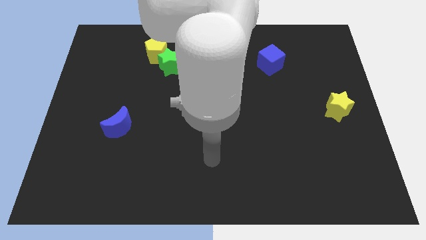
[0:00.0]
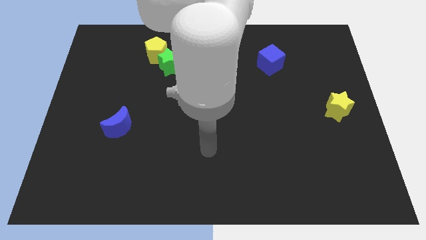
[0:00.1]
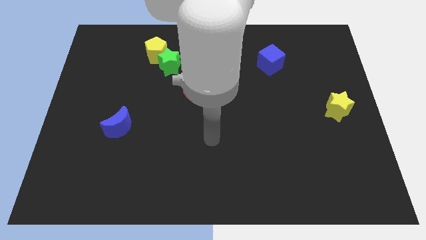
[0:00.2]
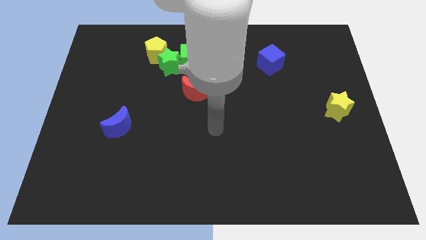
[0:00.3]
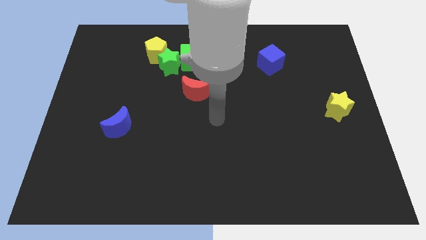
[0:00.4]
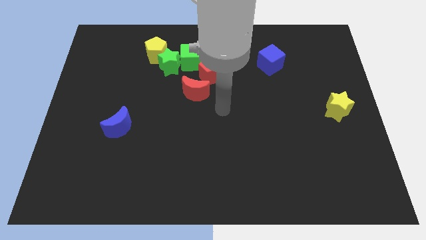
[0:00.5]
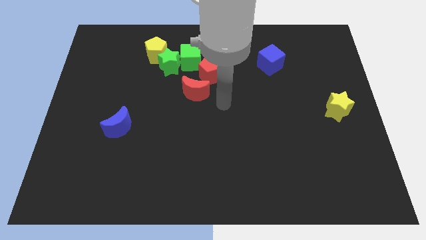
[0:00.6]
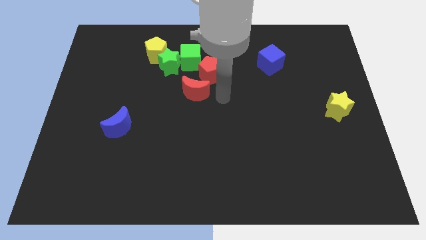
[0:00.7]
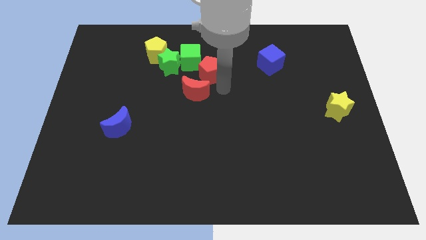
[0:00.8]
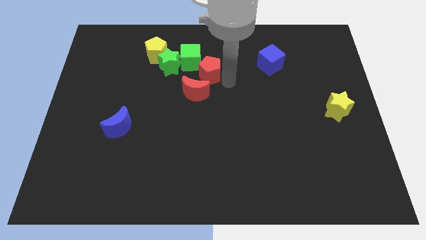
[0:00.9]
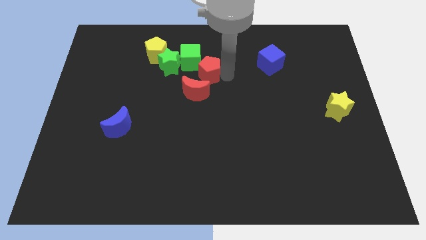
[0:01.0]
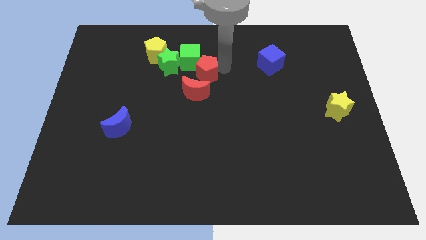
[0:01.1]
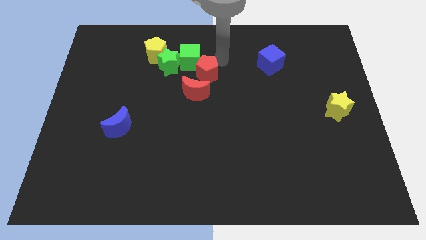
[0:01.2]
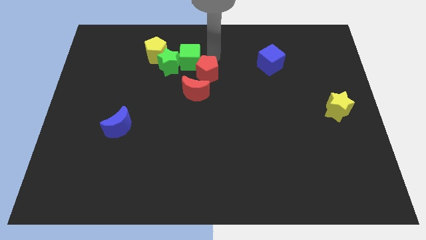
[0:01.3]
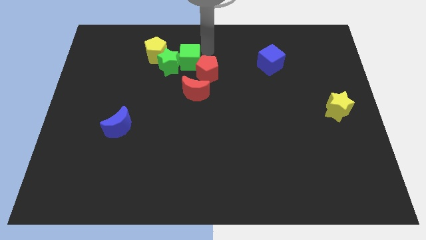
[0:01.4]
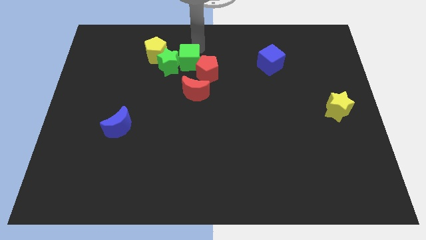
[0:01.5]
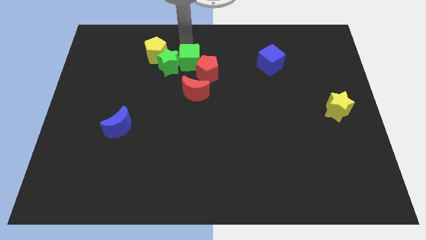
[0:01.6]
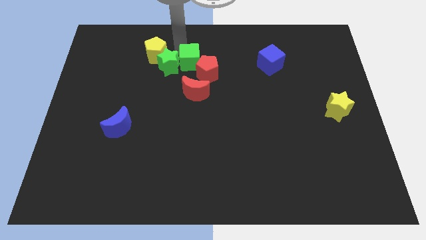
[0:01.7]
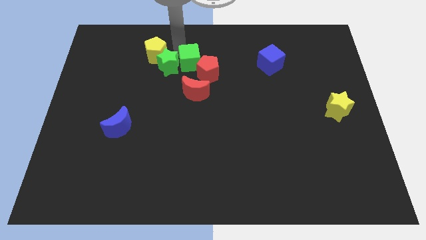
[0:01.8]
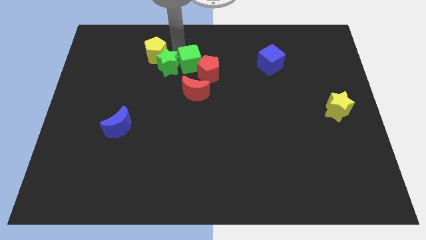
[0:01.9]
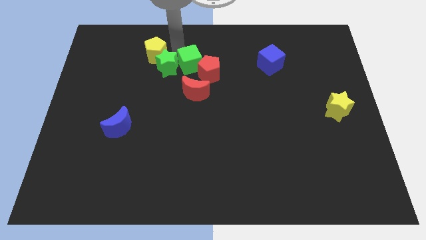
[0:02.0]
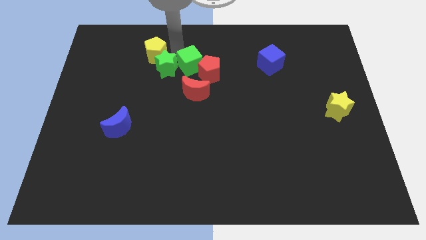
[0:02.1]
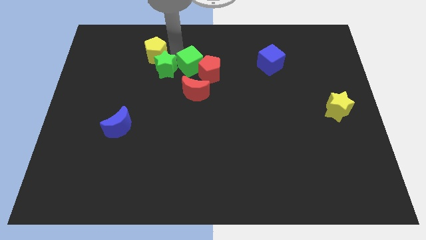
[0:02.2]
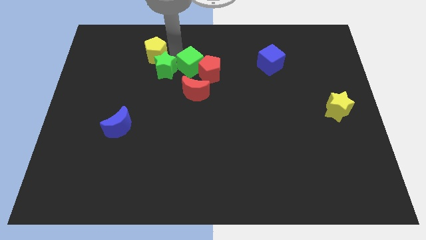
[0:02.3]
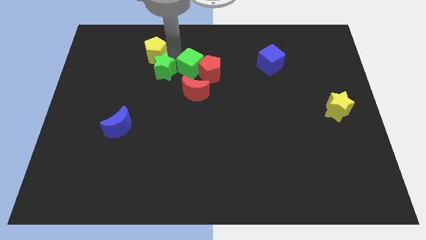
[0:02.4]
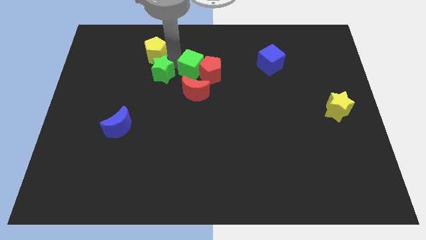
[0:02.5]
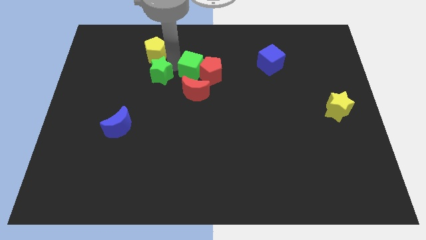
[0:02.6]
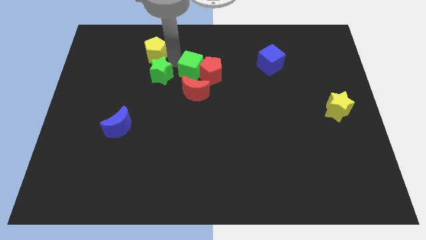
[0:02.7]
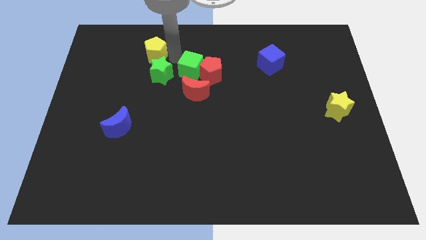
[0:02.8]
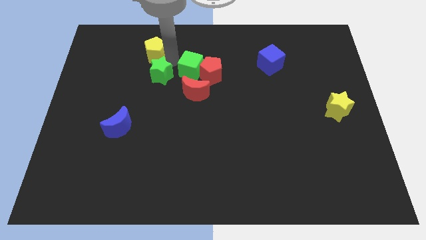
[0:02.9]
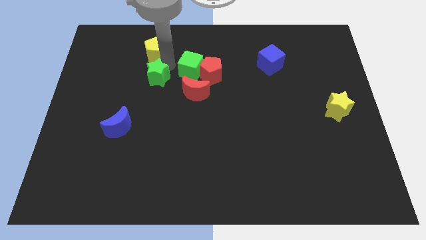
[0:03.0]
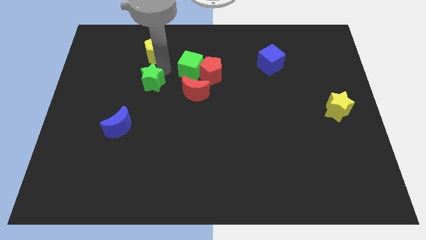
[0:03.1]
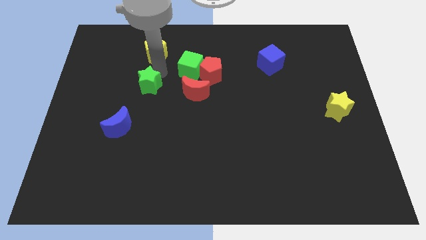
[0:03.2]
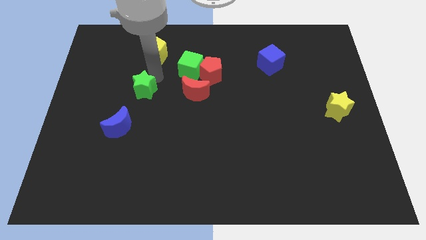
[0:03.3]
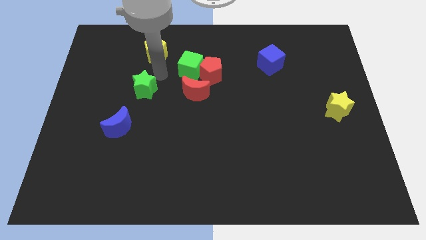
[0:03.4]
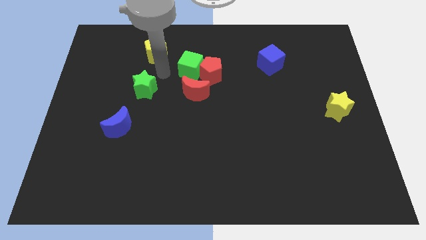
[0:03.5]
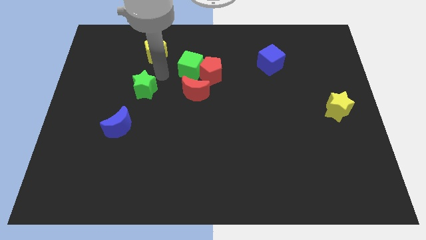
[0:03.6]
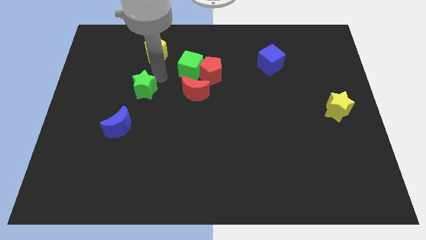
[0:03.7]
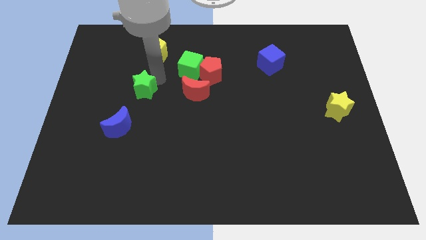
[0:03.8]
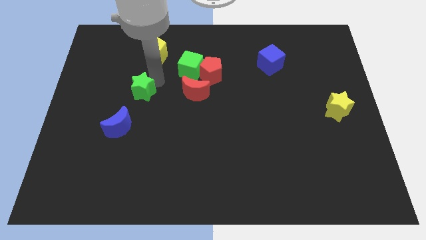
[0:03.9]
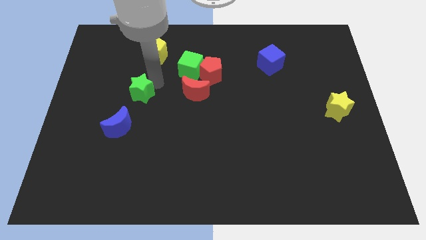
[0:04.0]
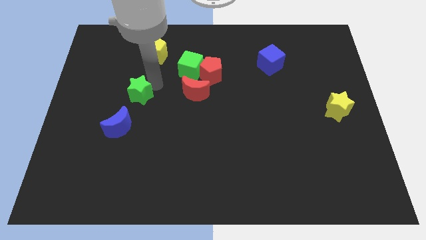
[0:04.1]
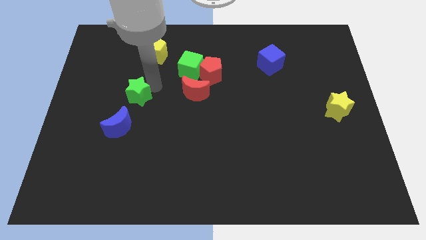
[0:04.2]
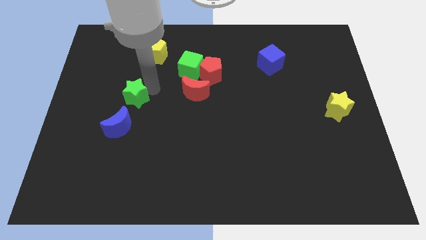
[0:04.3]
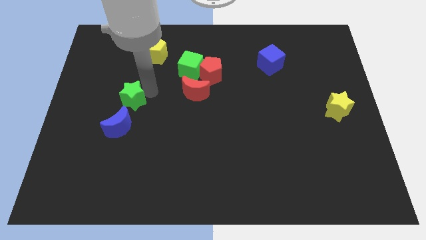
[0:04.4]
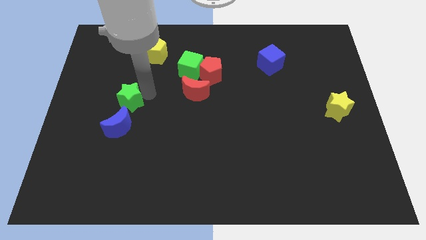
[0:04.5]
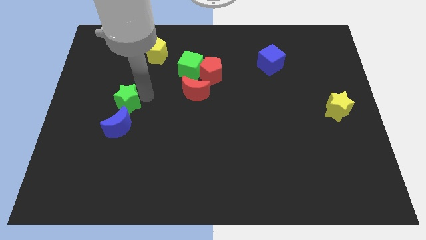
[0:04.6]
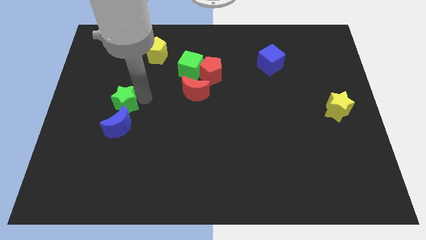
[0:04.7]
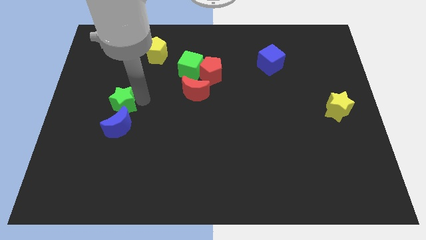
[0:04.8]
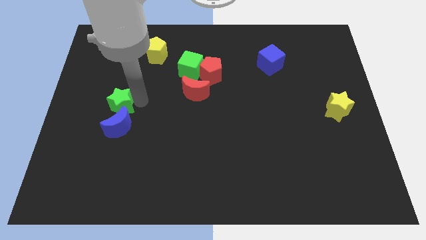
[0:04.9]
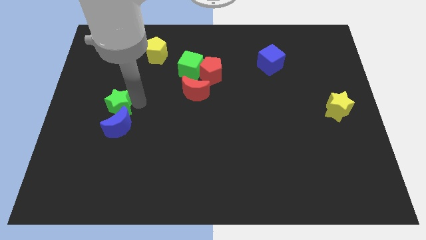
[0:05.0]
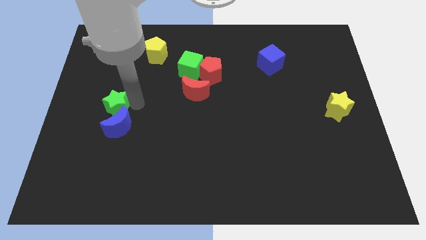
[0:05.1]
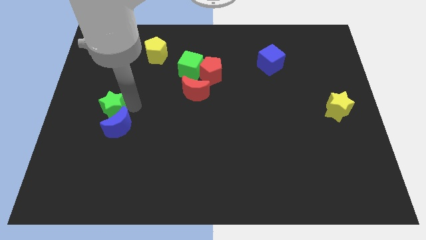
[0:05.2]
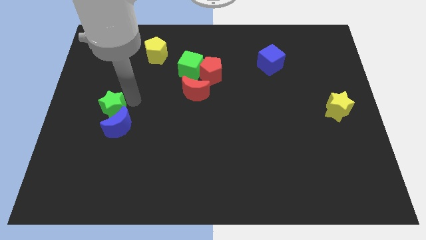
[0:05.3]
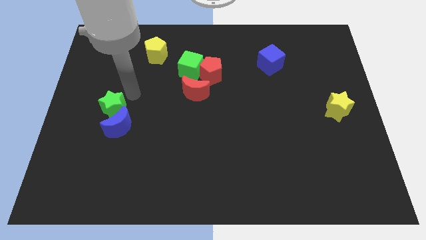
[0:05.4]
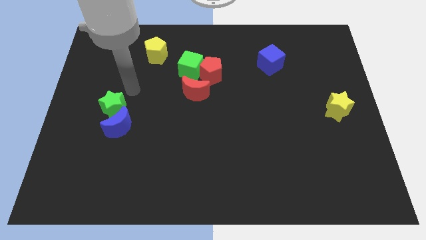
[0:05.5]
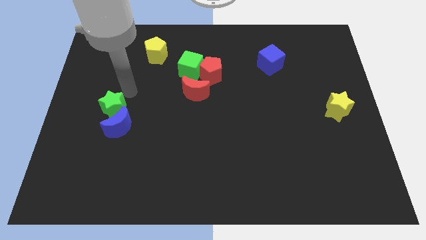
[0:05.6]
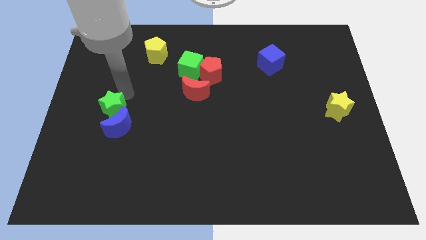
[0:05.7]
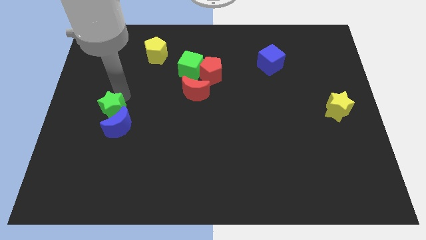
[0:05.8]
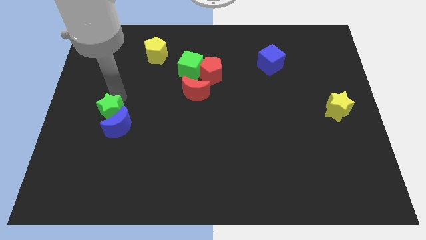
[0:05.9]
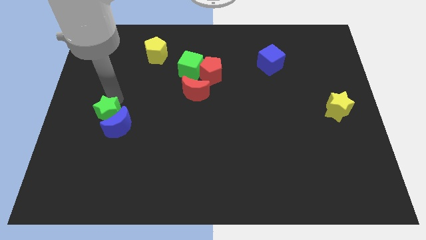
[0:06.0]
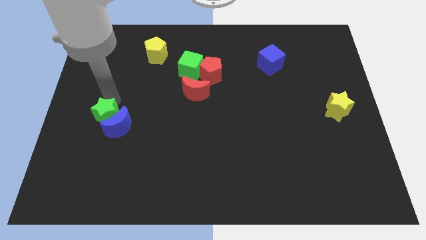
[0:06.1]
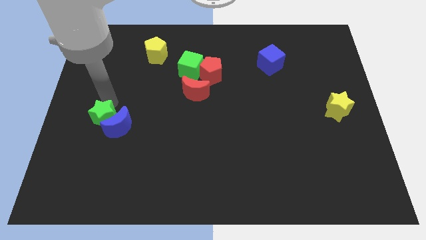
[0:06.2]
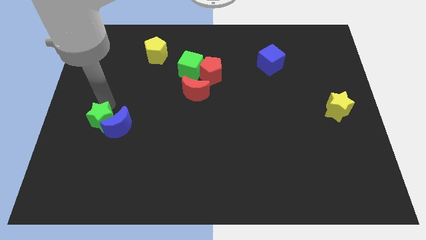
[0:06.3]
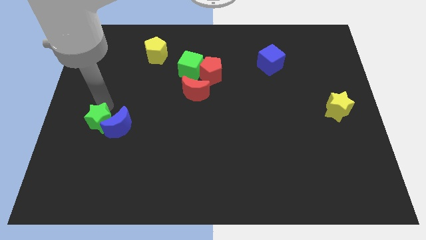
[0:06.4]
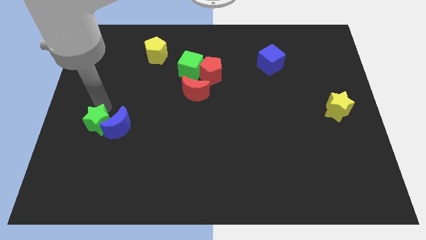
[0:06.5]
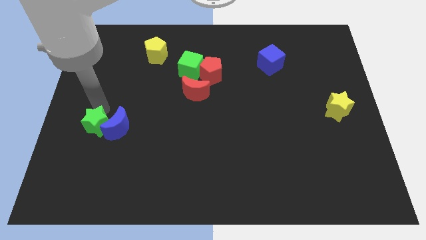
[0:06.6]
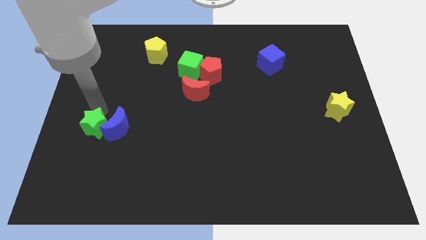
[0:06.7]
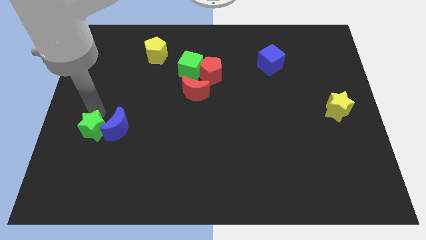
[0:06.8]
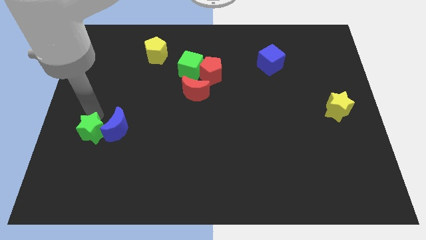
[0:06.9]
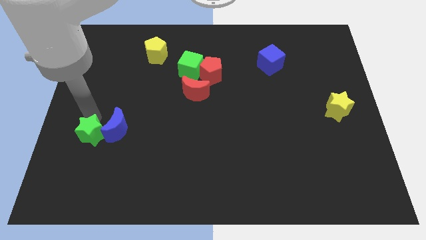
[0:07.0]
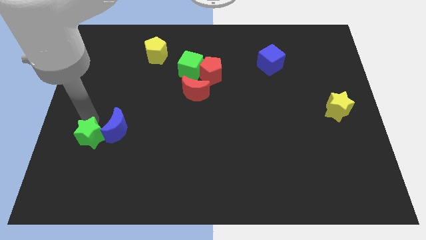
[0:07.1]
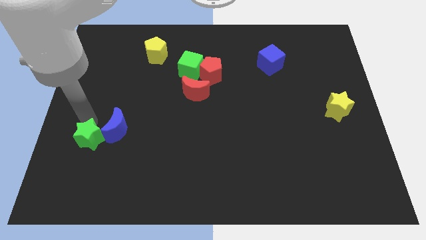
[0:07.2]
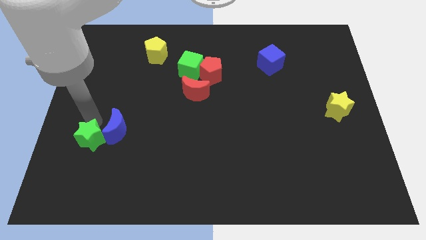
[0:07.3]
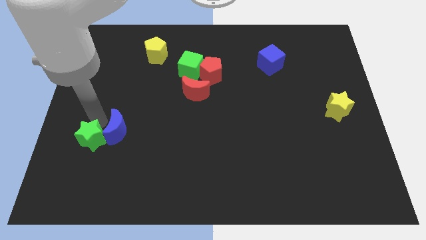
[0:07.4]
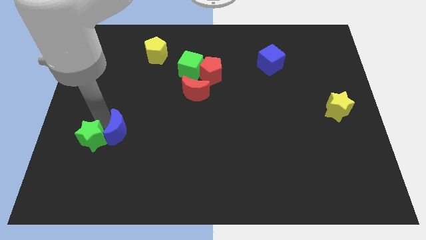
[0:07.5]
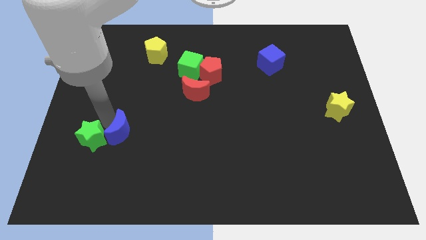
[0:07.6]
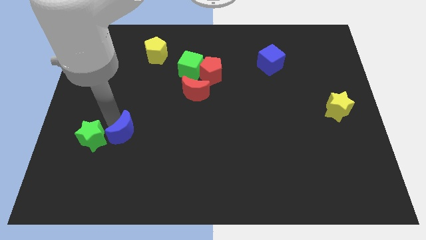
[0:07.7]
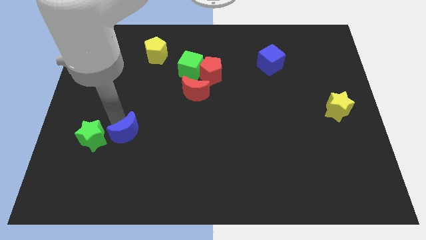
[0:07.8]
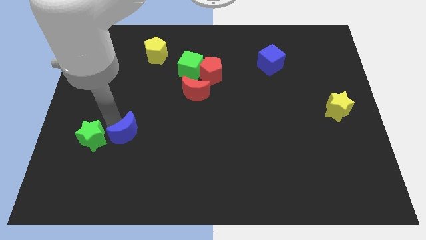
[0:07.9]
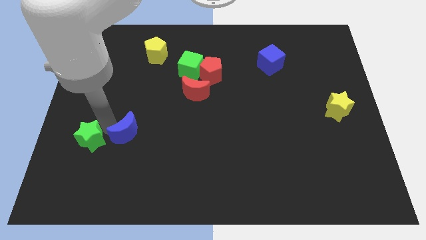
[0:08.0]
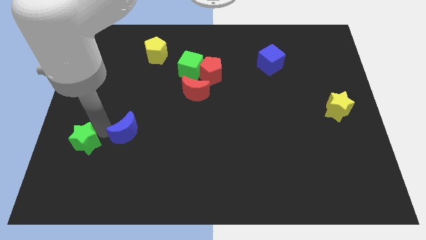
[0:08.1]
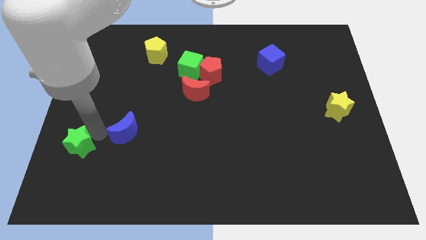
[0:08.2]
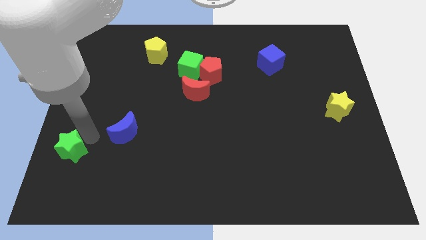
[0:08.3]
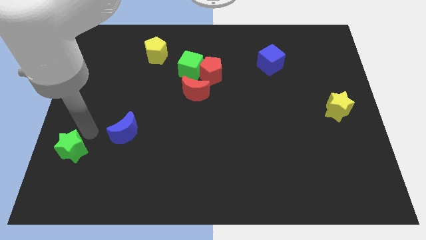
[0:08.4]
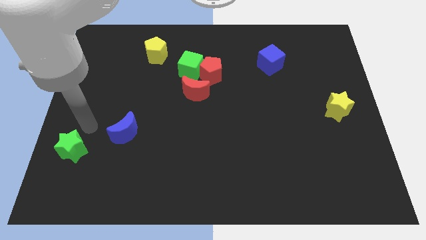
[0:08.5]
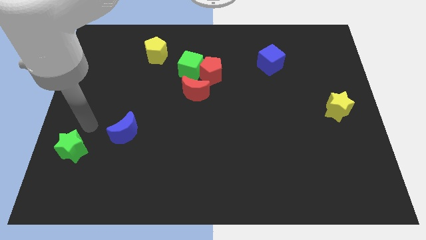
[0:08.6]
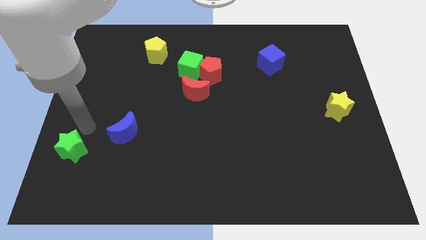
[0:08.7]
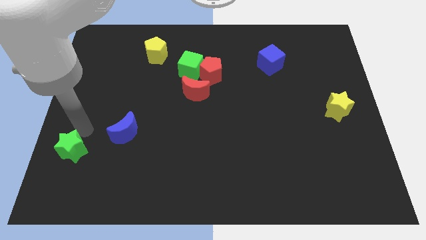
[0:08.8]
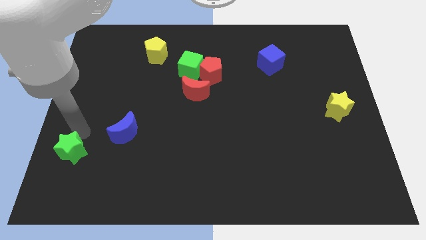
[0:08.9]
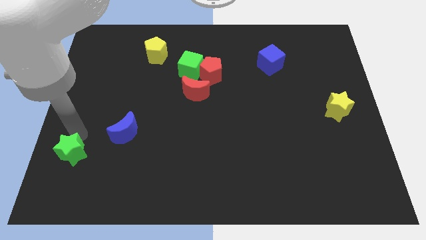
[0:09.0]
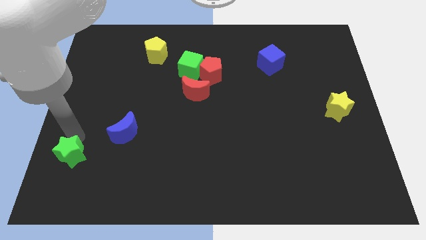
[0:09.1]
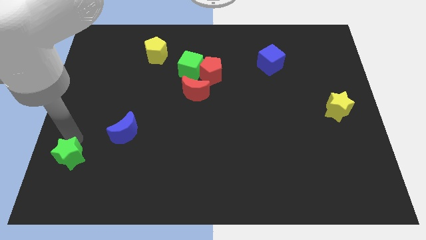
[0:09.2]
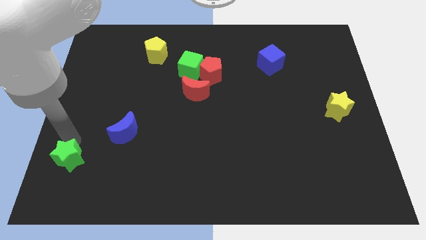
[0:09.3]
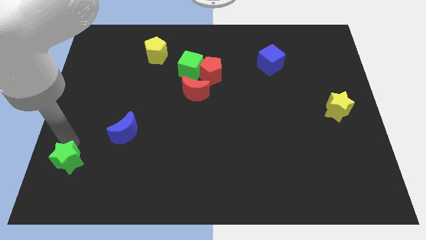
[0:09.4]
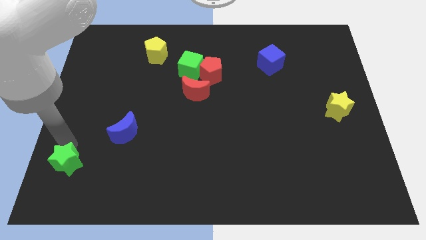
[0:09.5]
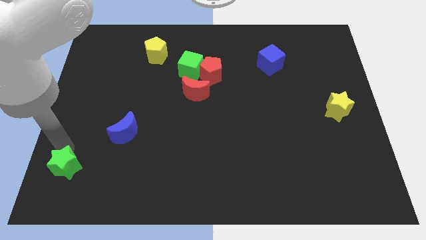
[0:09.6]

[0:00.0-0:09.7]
put the green star to the lower left corner
